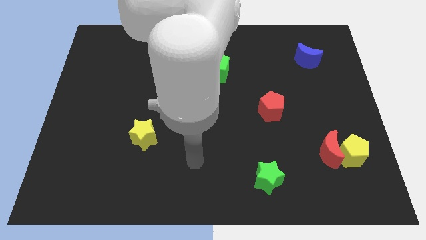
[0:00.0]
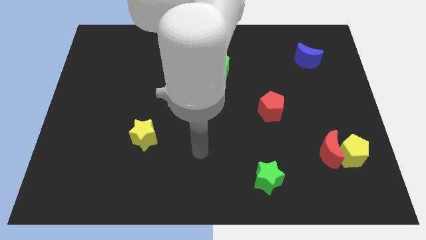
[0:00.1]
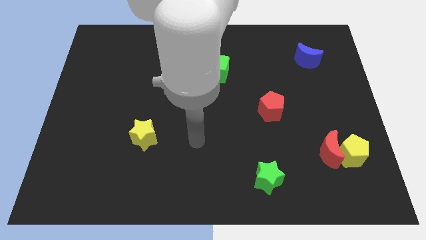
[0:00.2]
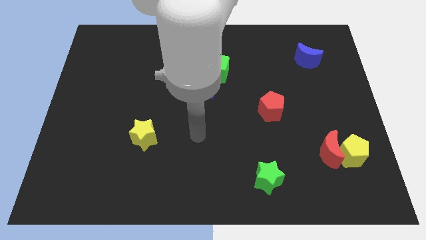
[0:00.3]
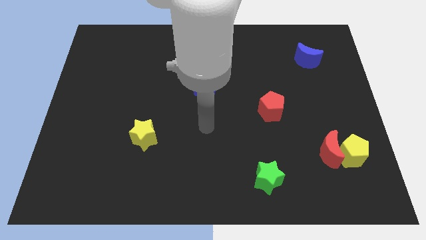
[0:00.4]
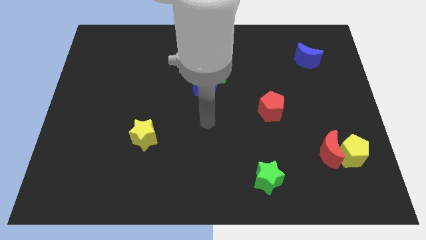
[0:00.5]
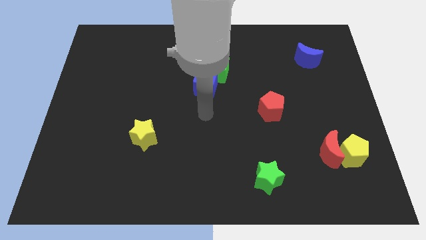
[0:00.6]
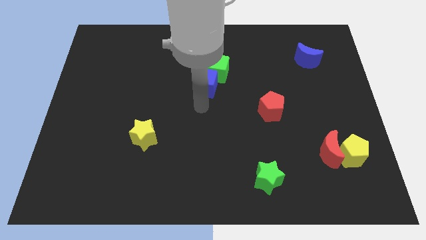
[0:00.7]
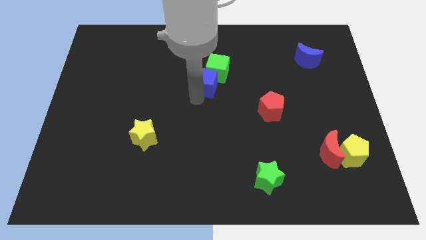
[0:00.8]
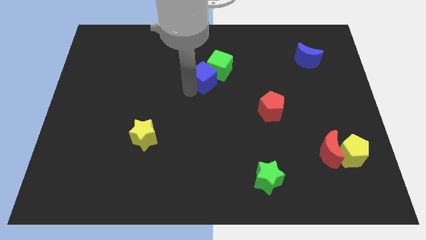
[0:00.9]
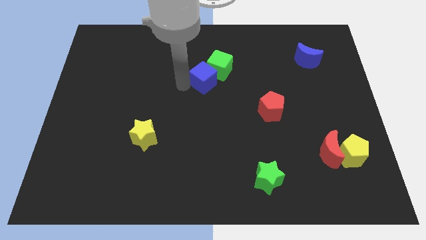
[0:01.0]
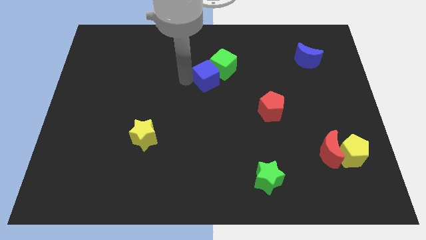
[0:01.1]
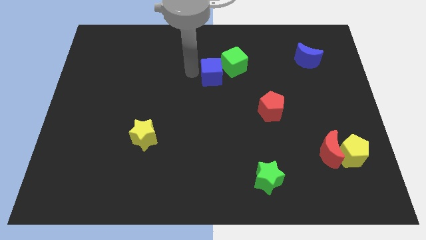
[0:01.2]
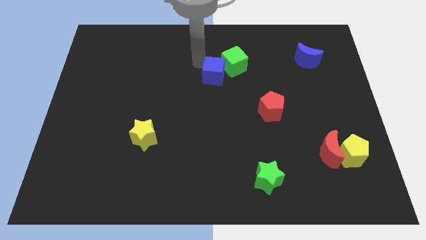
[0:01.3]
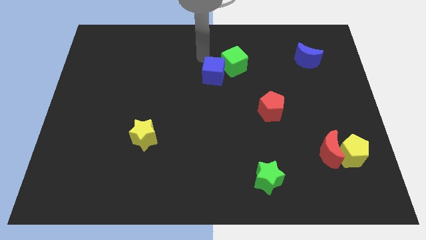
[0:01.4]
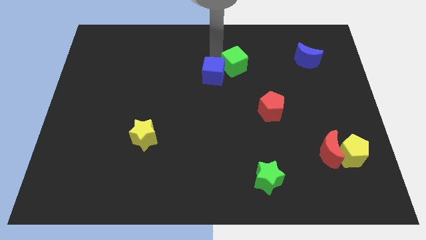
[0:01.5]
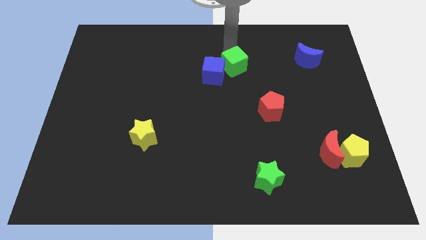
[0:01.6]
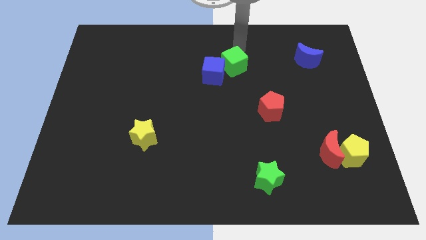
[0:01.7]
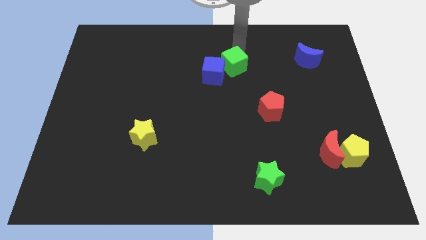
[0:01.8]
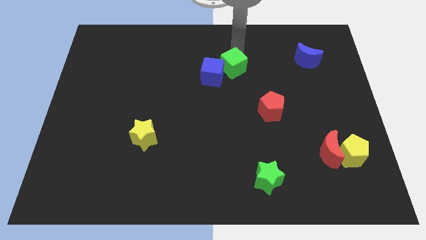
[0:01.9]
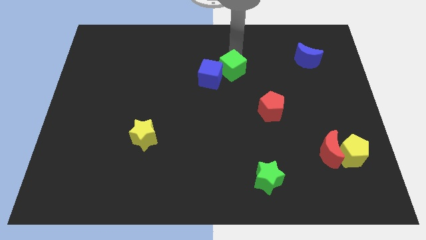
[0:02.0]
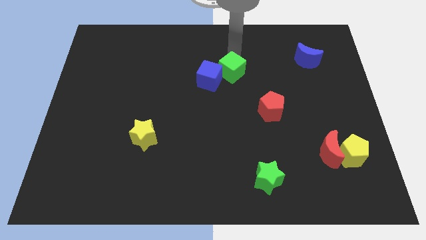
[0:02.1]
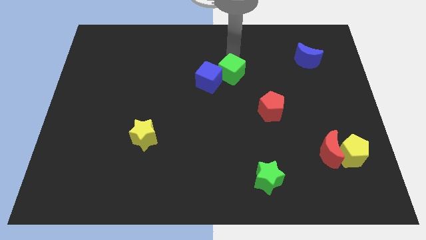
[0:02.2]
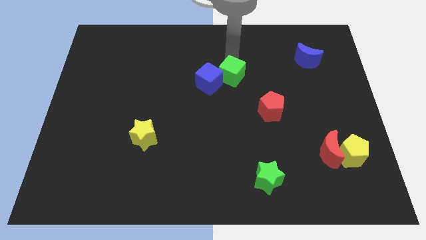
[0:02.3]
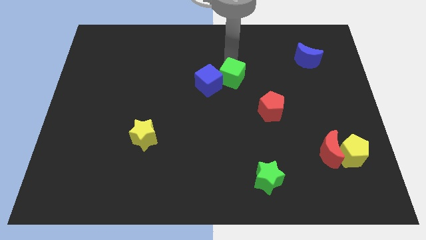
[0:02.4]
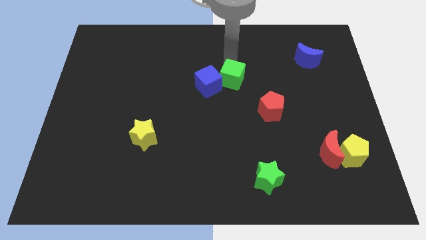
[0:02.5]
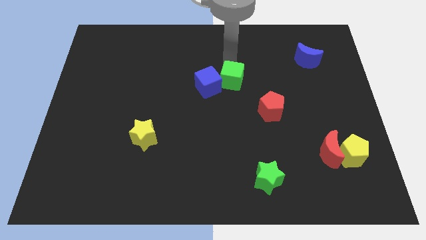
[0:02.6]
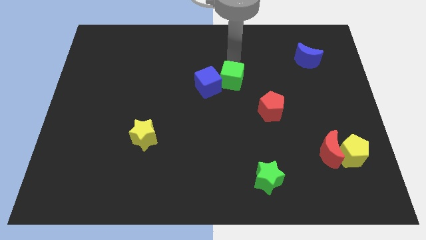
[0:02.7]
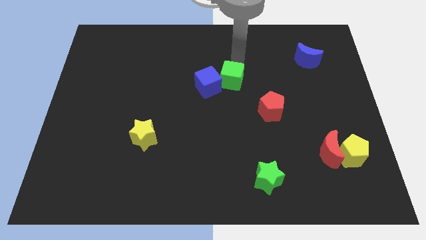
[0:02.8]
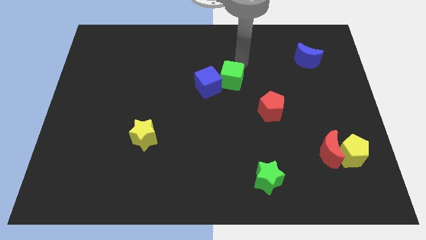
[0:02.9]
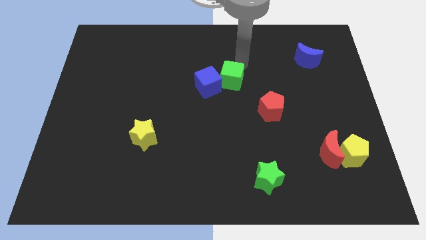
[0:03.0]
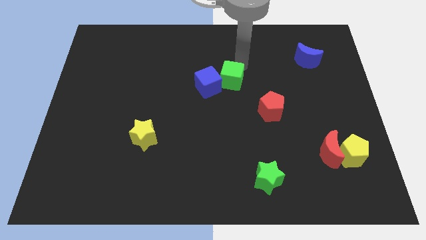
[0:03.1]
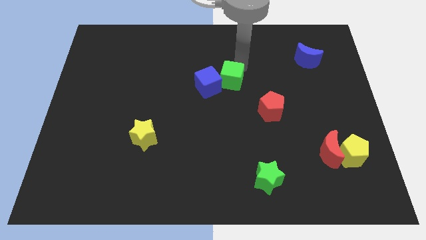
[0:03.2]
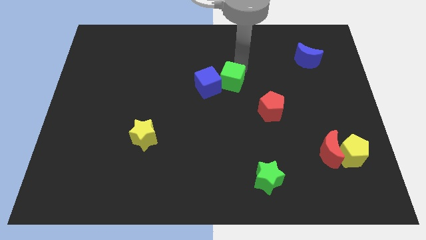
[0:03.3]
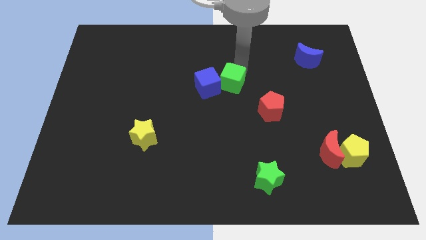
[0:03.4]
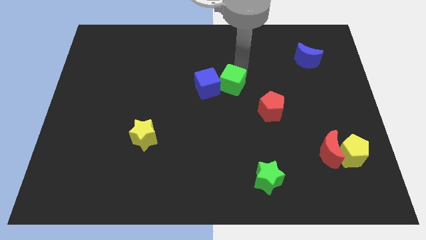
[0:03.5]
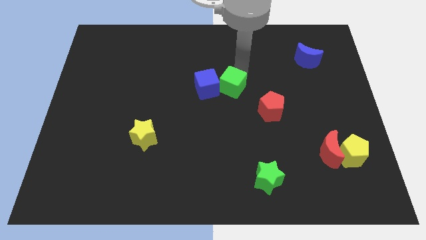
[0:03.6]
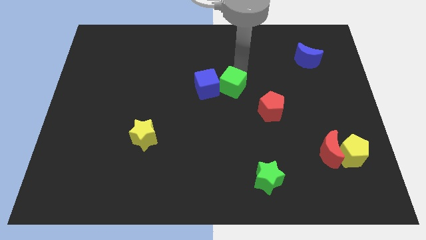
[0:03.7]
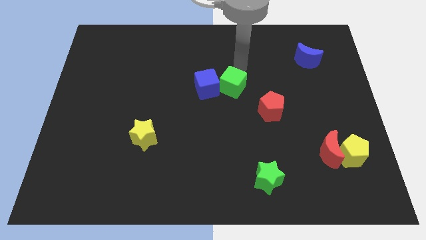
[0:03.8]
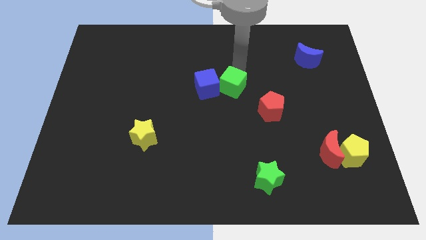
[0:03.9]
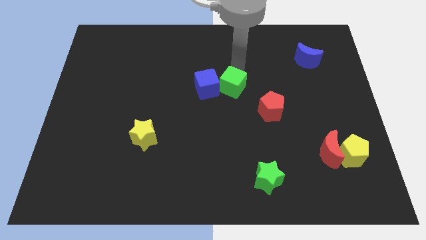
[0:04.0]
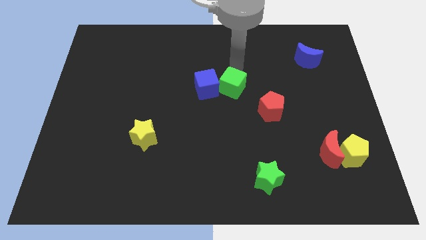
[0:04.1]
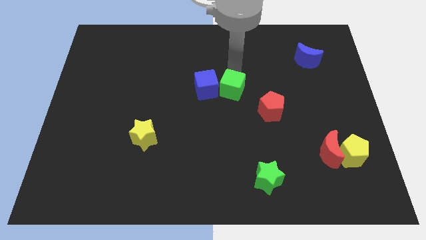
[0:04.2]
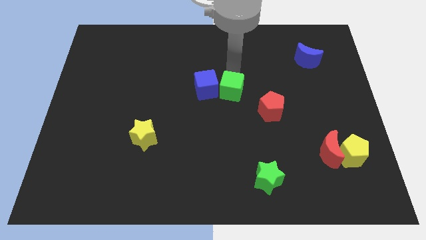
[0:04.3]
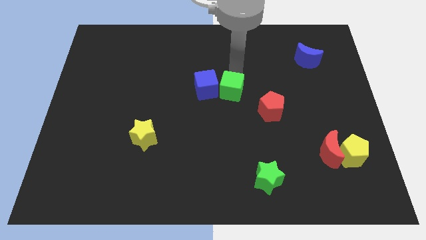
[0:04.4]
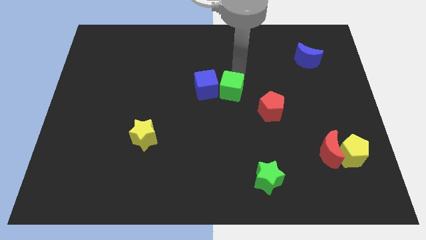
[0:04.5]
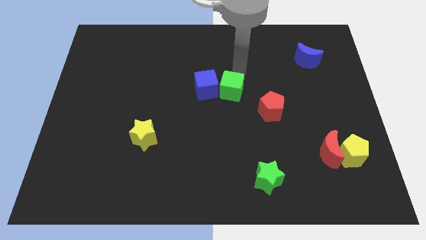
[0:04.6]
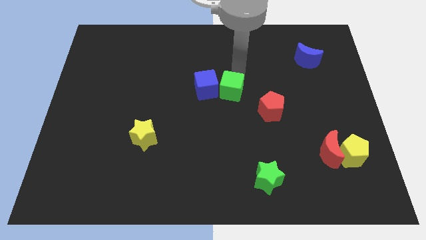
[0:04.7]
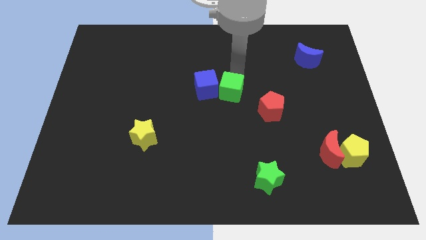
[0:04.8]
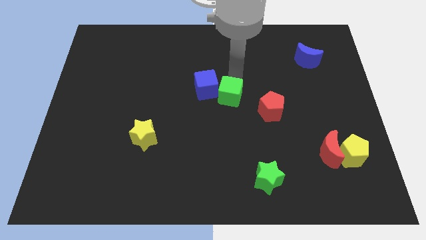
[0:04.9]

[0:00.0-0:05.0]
slide the green cube downwards a little

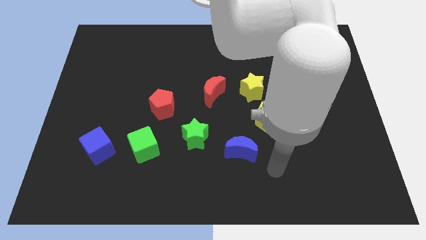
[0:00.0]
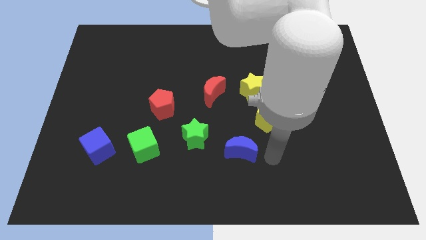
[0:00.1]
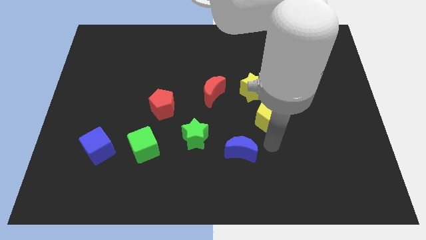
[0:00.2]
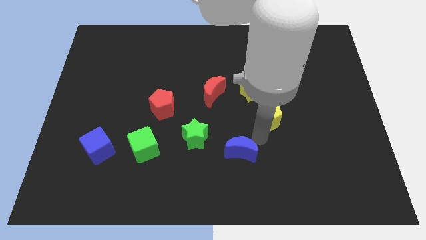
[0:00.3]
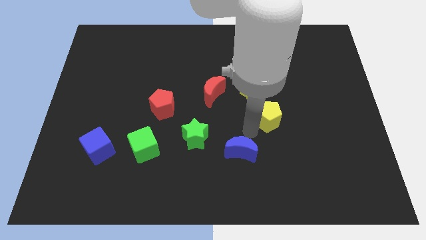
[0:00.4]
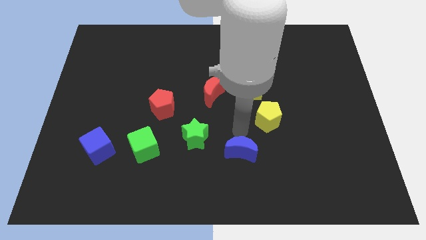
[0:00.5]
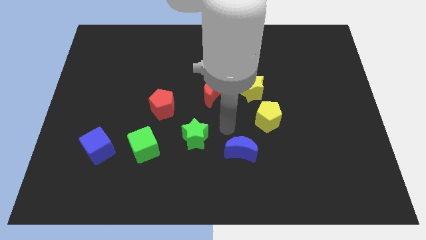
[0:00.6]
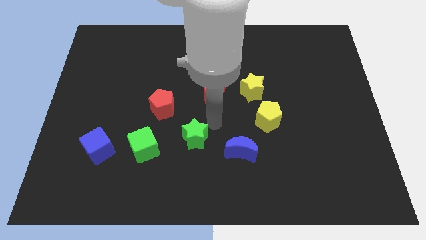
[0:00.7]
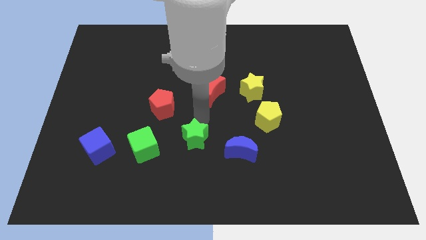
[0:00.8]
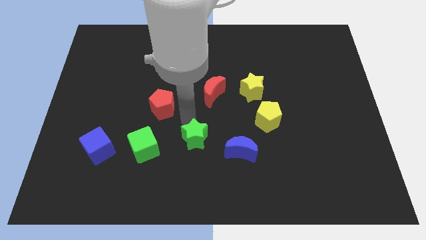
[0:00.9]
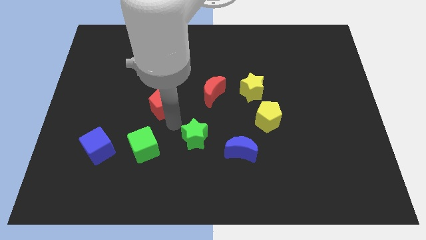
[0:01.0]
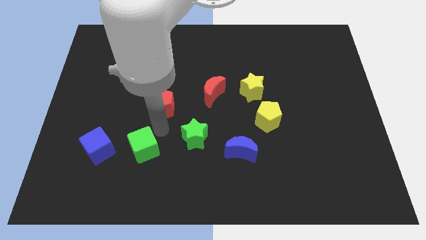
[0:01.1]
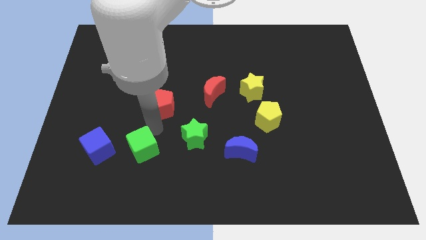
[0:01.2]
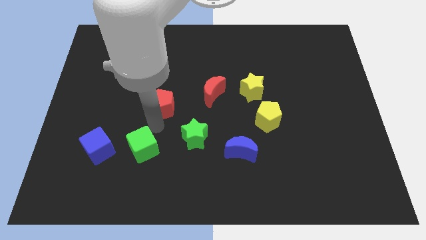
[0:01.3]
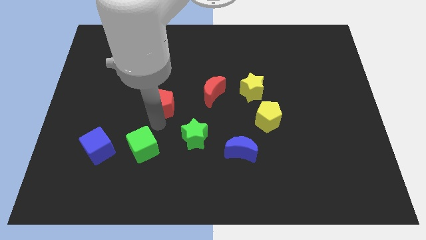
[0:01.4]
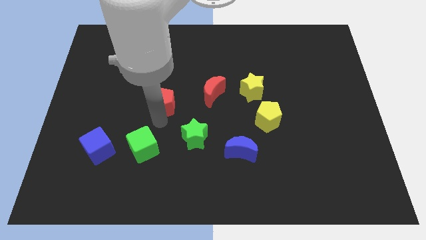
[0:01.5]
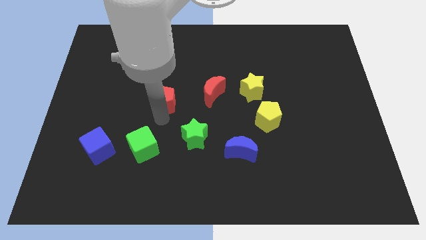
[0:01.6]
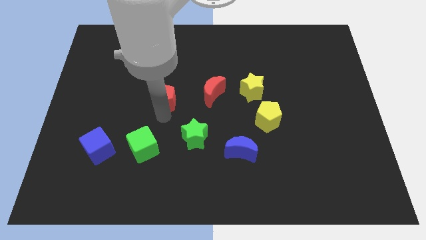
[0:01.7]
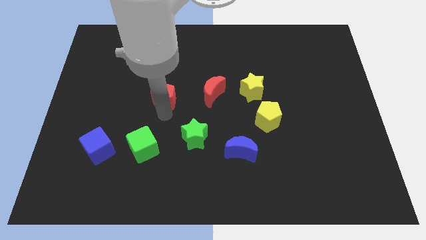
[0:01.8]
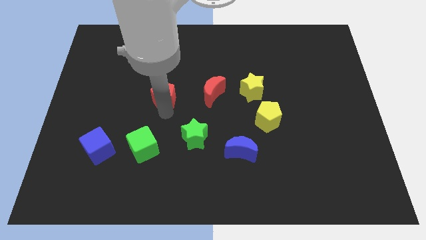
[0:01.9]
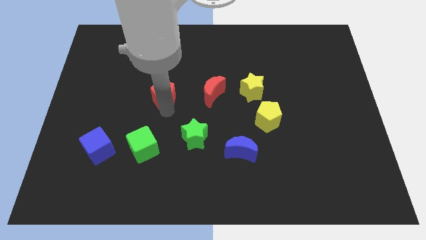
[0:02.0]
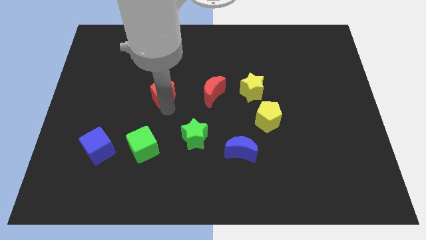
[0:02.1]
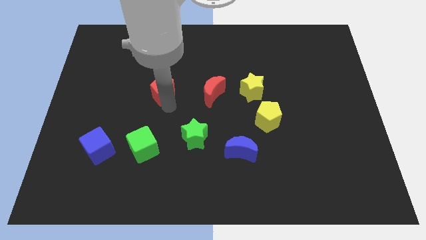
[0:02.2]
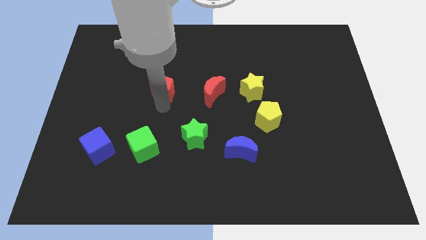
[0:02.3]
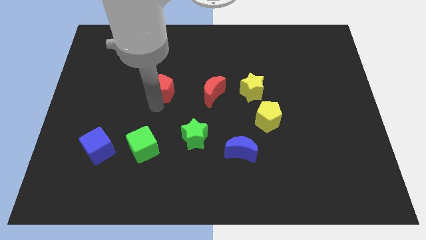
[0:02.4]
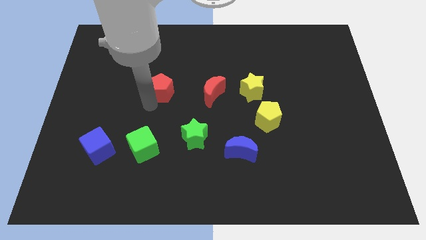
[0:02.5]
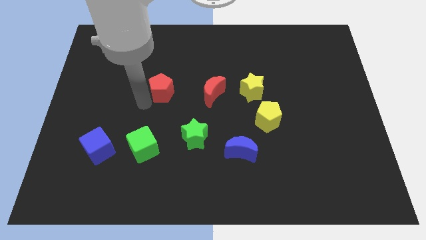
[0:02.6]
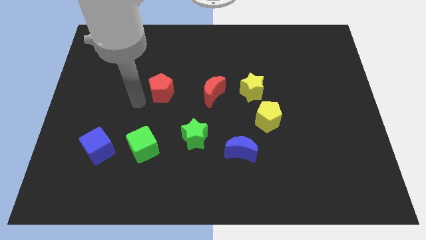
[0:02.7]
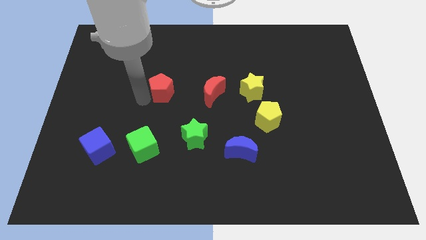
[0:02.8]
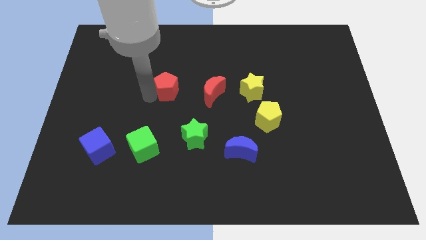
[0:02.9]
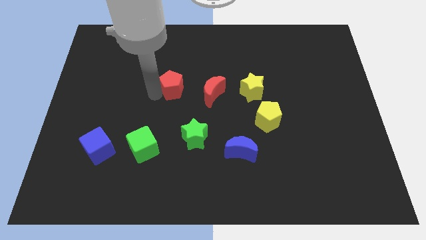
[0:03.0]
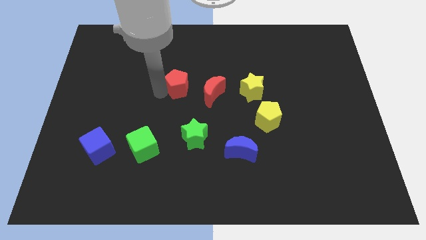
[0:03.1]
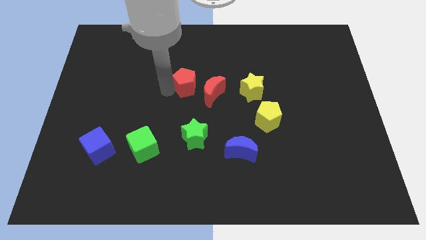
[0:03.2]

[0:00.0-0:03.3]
move the red pentagon upwards and right diagonally somewhat
